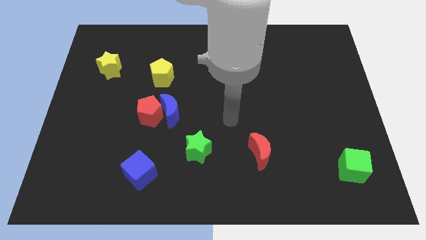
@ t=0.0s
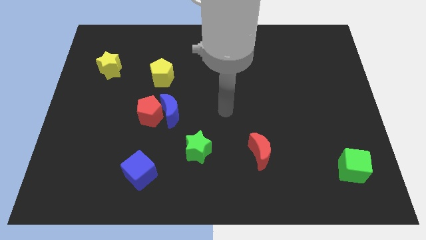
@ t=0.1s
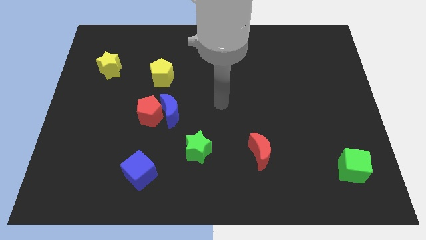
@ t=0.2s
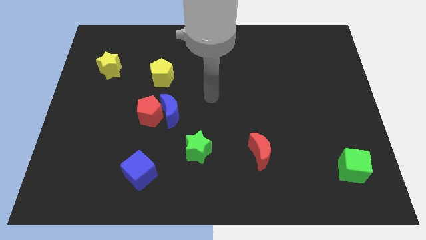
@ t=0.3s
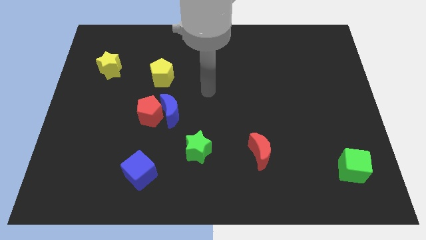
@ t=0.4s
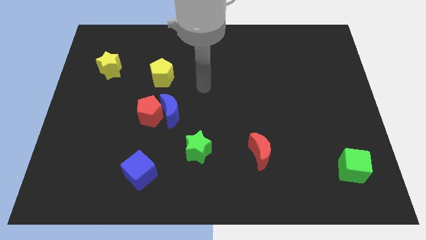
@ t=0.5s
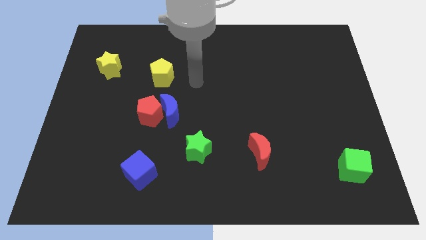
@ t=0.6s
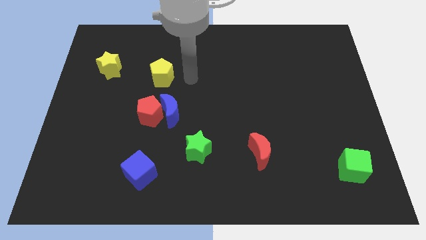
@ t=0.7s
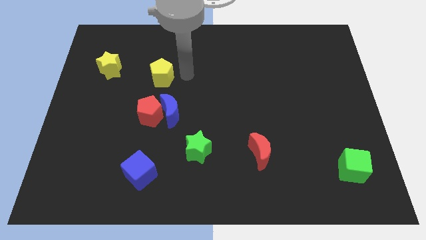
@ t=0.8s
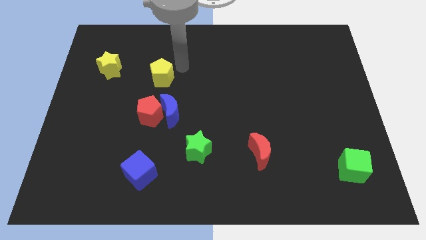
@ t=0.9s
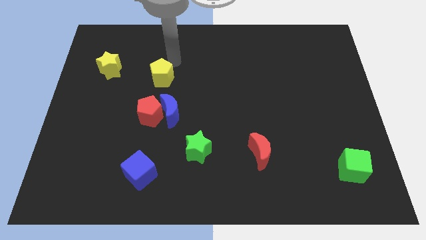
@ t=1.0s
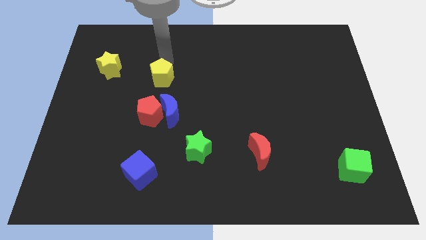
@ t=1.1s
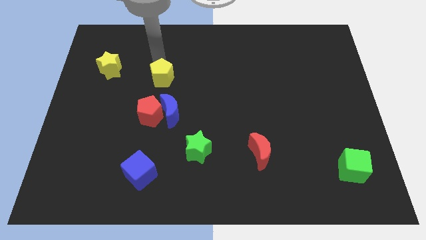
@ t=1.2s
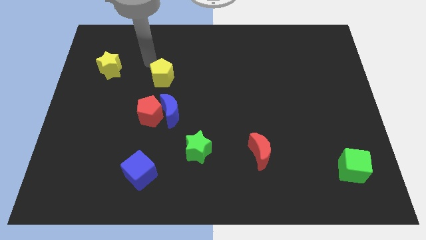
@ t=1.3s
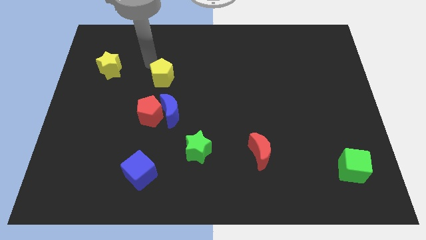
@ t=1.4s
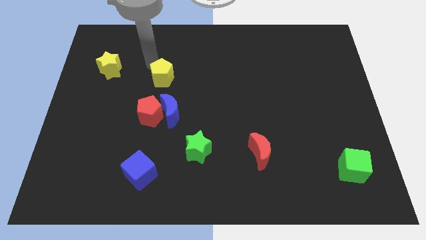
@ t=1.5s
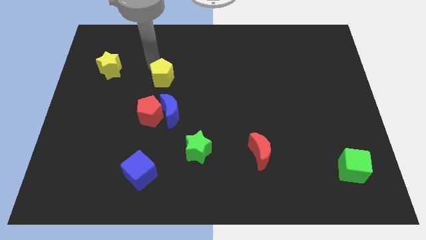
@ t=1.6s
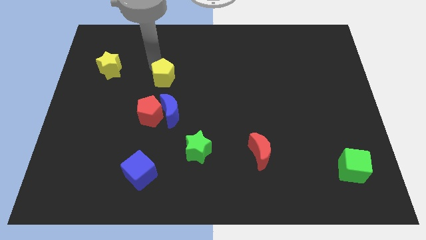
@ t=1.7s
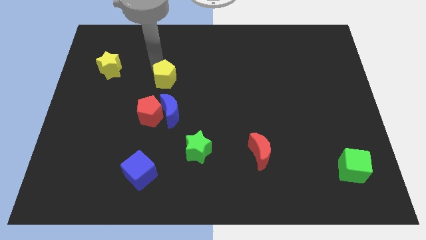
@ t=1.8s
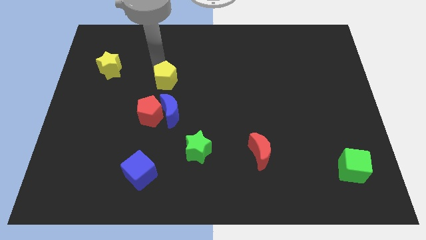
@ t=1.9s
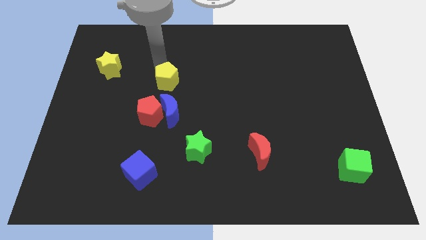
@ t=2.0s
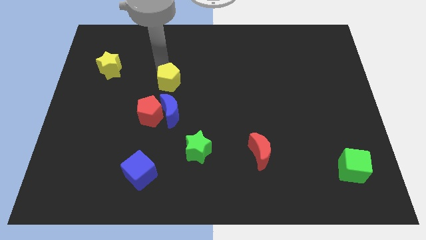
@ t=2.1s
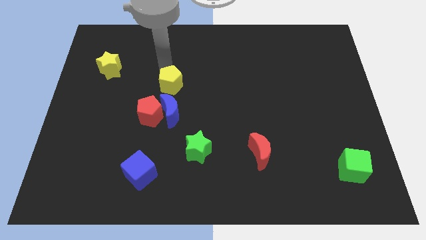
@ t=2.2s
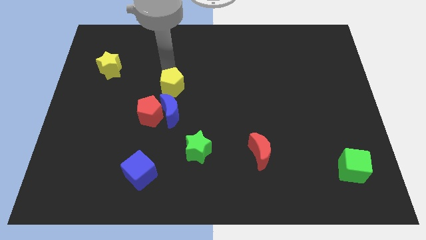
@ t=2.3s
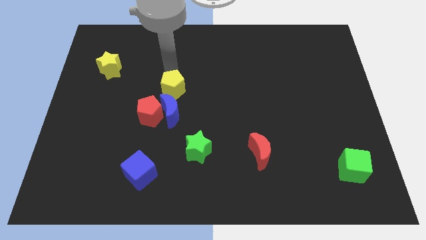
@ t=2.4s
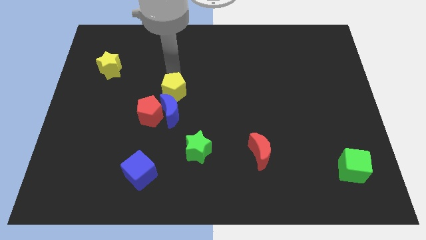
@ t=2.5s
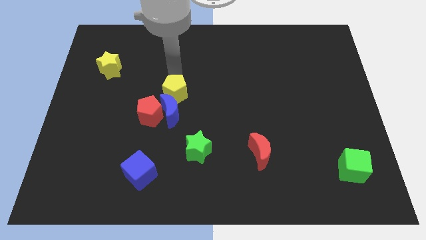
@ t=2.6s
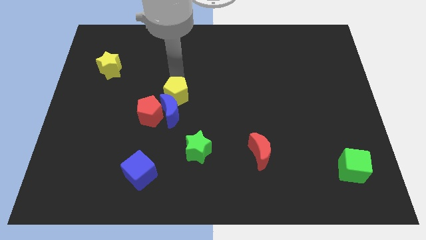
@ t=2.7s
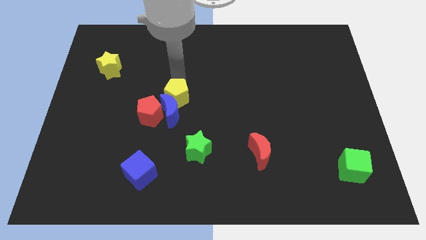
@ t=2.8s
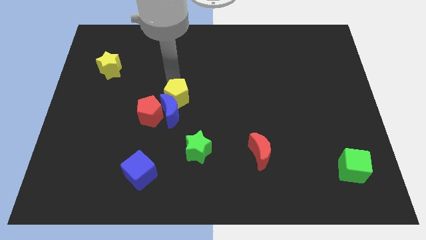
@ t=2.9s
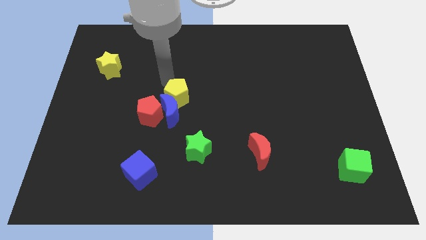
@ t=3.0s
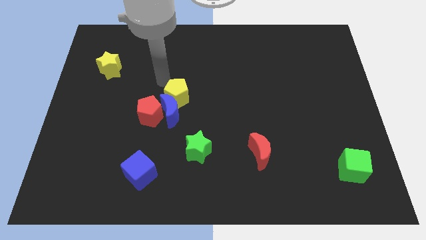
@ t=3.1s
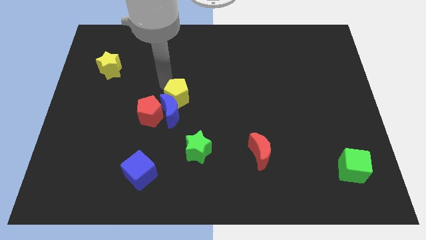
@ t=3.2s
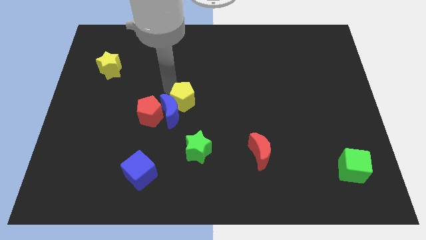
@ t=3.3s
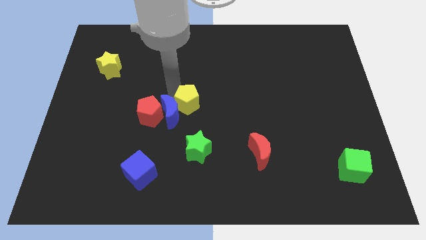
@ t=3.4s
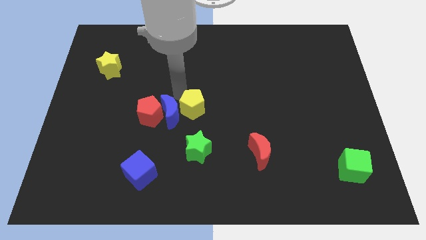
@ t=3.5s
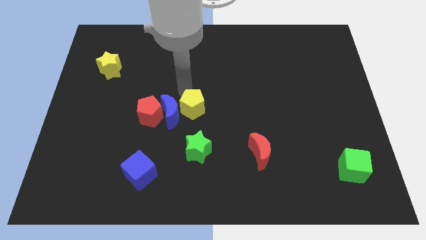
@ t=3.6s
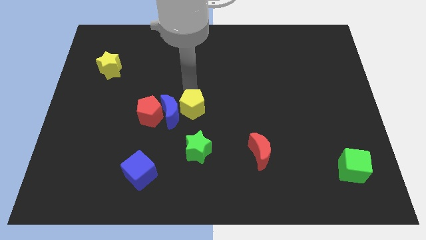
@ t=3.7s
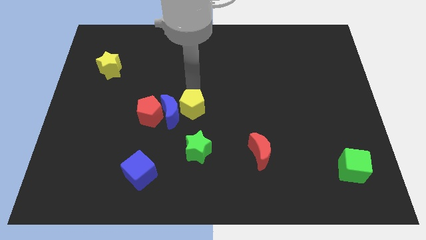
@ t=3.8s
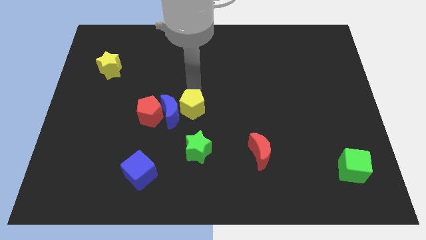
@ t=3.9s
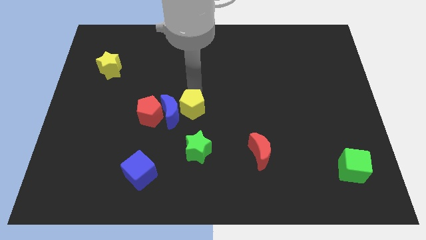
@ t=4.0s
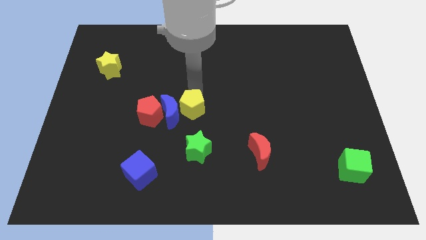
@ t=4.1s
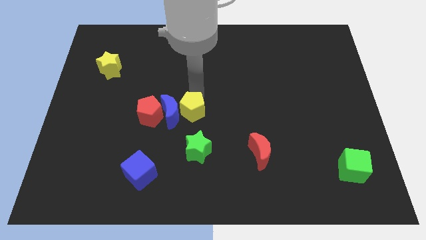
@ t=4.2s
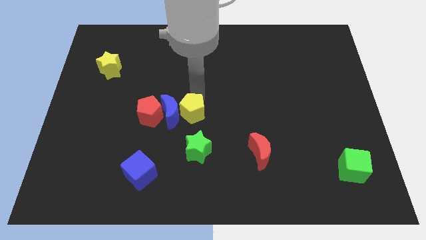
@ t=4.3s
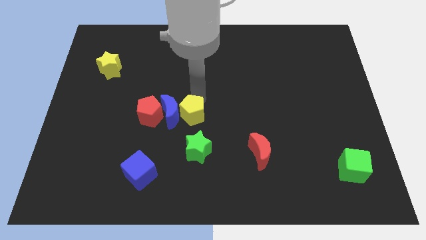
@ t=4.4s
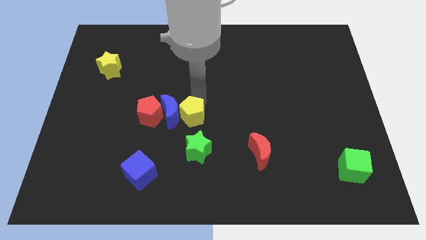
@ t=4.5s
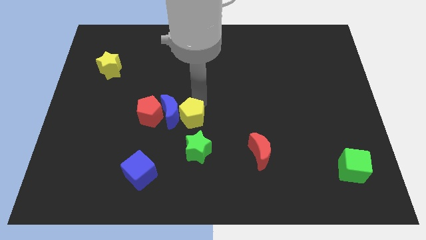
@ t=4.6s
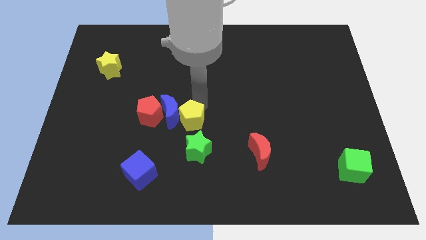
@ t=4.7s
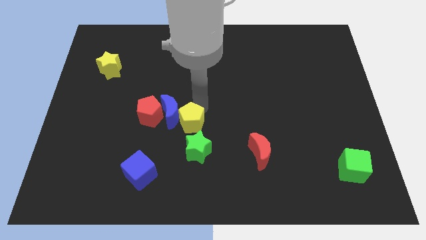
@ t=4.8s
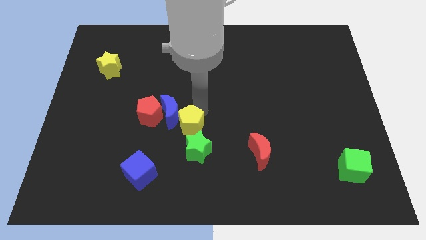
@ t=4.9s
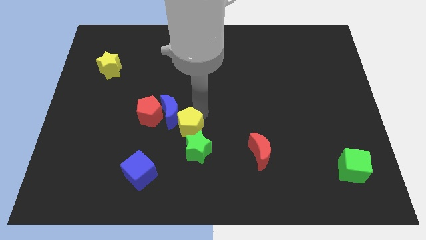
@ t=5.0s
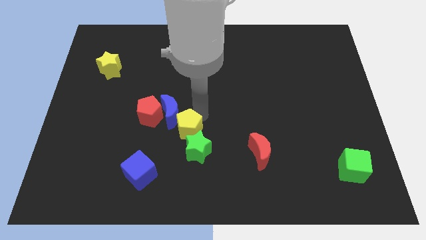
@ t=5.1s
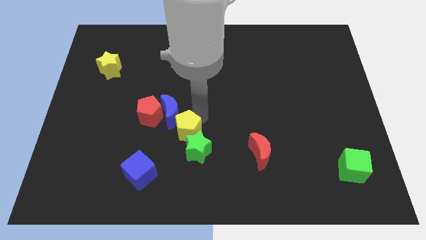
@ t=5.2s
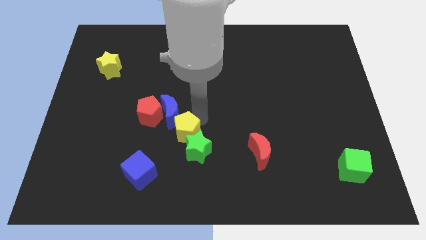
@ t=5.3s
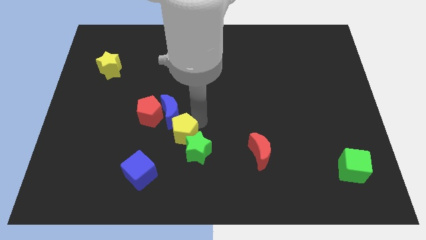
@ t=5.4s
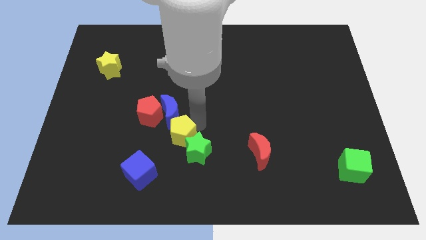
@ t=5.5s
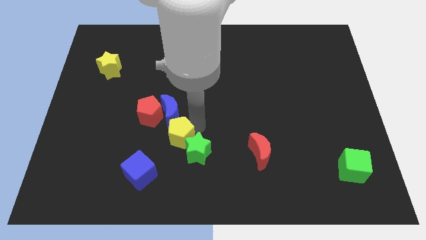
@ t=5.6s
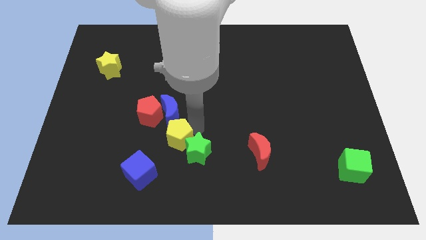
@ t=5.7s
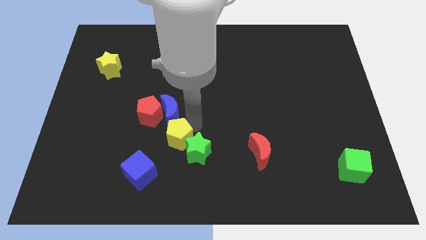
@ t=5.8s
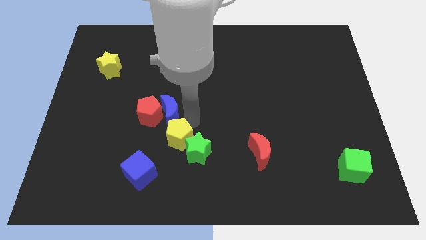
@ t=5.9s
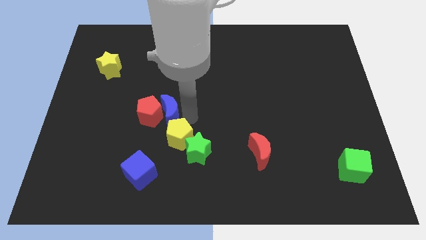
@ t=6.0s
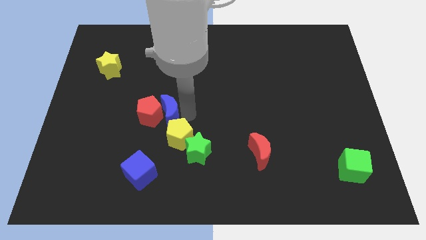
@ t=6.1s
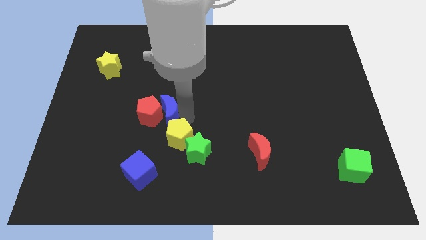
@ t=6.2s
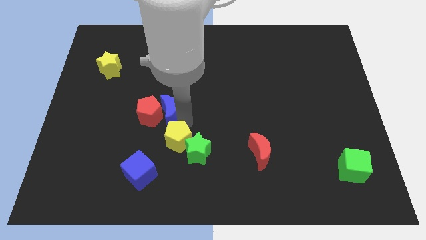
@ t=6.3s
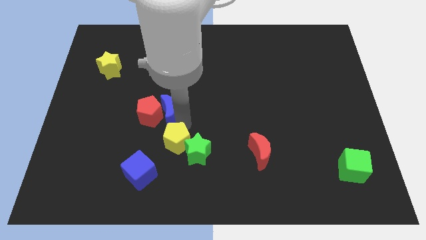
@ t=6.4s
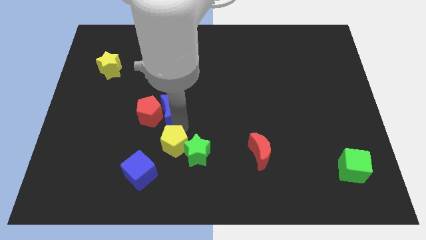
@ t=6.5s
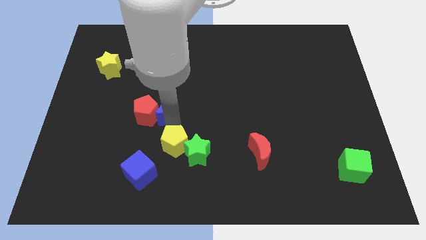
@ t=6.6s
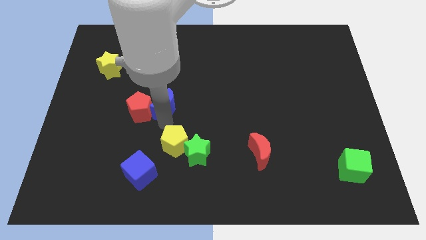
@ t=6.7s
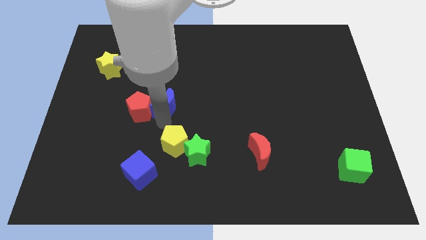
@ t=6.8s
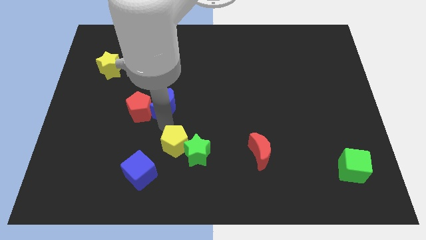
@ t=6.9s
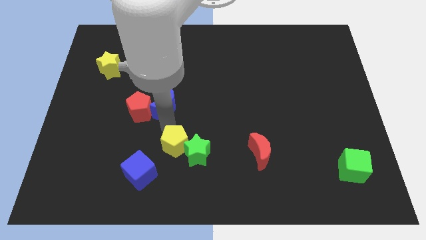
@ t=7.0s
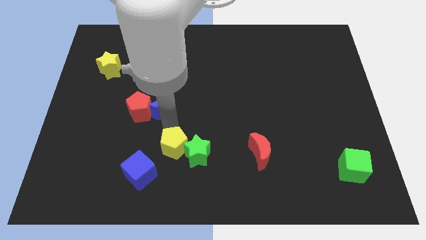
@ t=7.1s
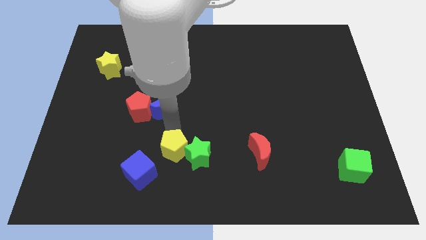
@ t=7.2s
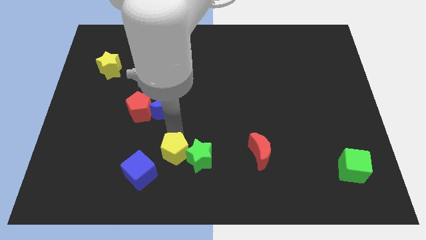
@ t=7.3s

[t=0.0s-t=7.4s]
push the yellow pentagon to the right side of the blue cube

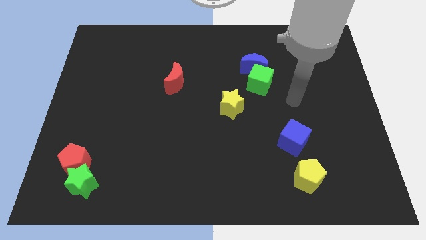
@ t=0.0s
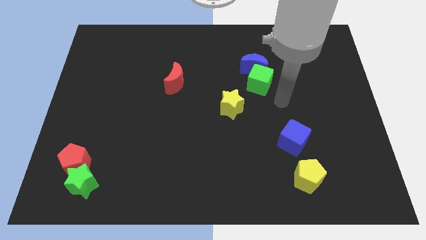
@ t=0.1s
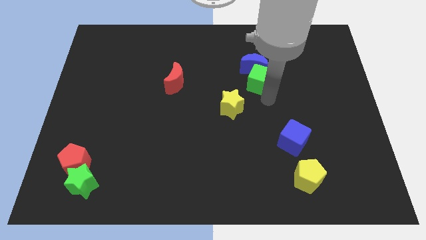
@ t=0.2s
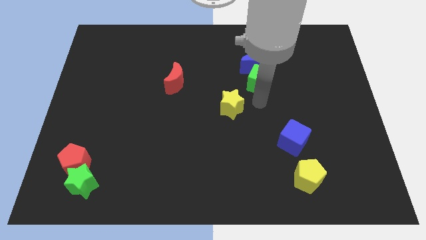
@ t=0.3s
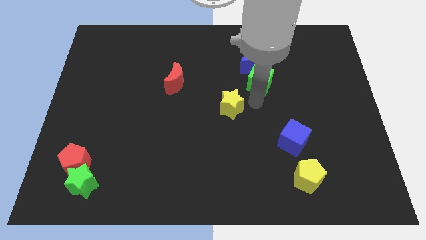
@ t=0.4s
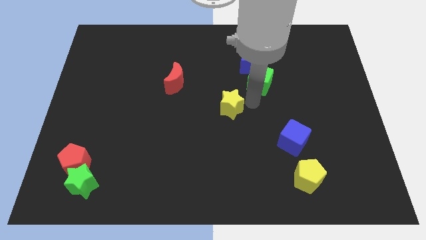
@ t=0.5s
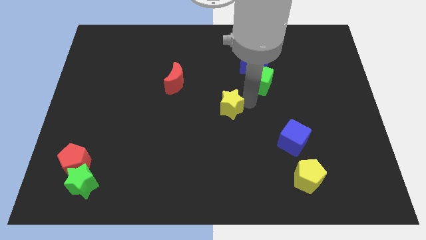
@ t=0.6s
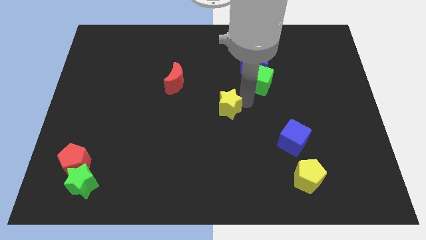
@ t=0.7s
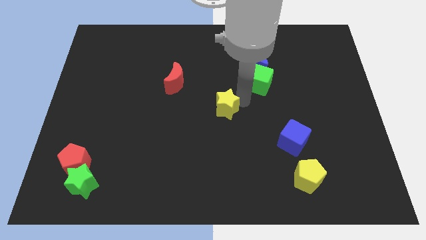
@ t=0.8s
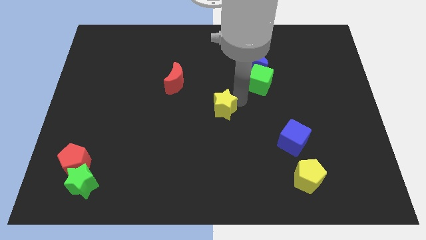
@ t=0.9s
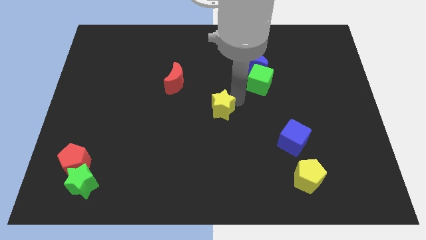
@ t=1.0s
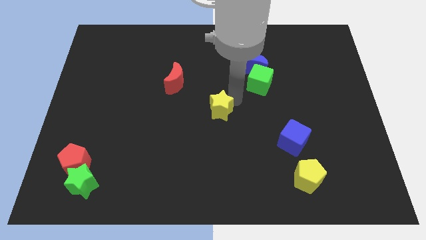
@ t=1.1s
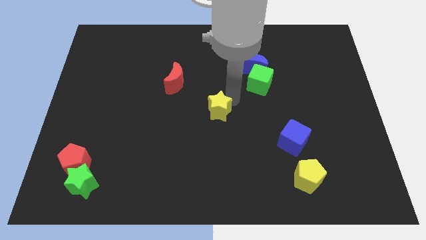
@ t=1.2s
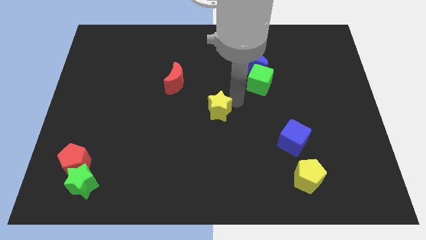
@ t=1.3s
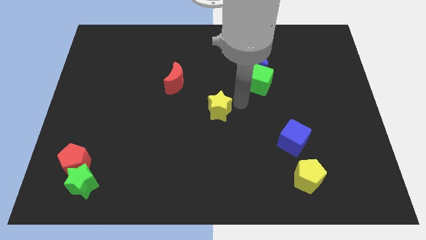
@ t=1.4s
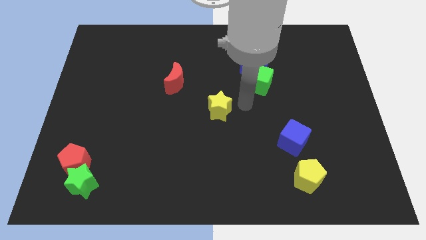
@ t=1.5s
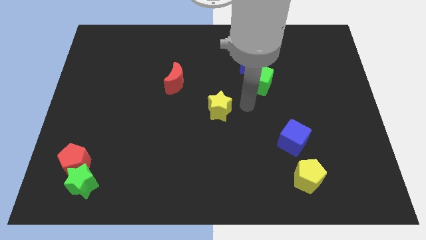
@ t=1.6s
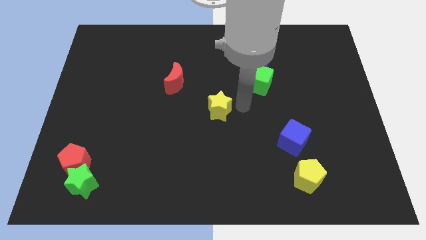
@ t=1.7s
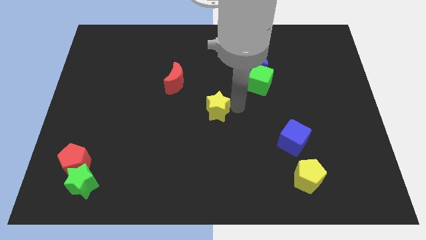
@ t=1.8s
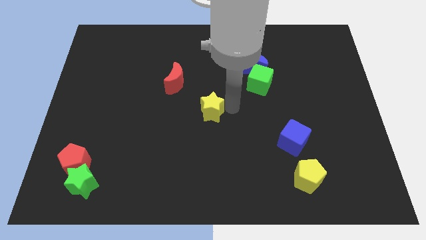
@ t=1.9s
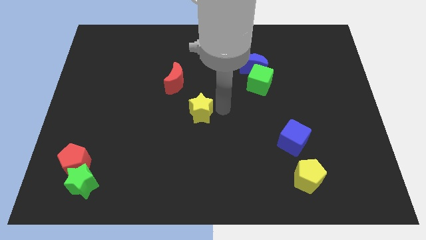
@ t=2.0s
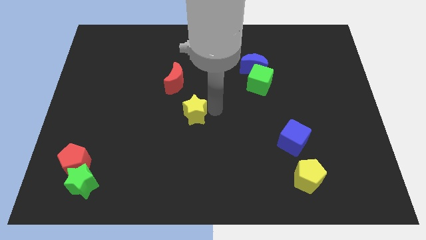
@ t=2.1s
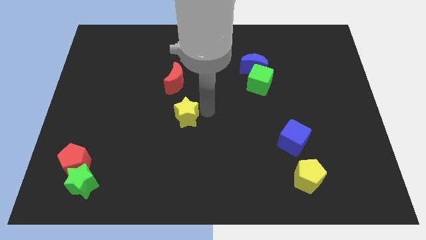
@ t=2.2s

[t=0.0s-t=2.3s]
slide the yellow star below the red moon
